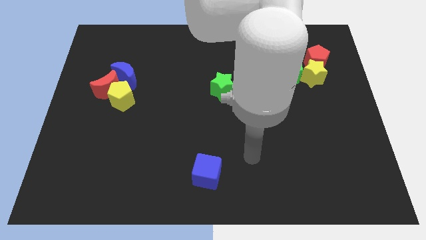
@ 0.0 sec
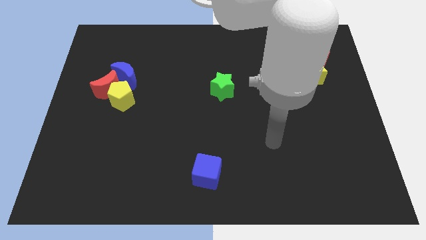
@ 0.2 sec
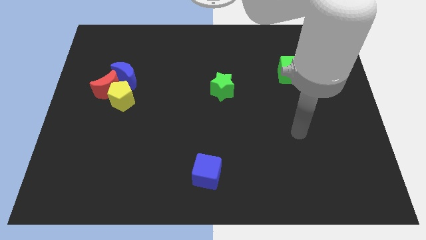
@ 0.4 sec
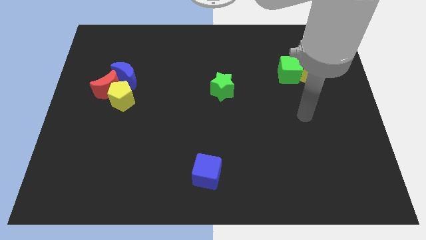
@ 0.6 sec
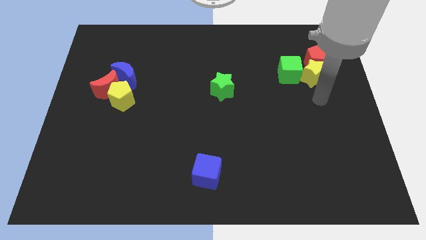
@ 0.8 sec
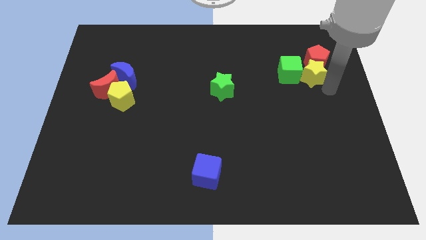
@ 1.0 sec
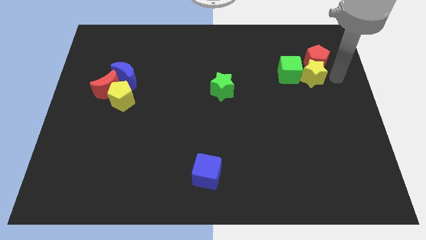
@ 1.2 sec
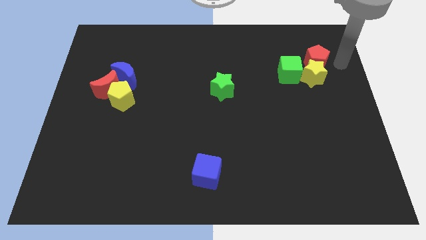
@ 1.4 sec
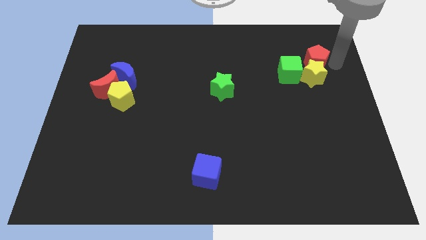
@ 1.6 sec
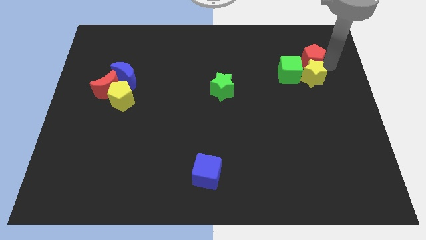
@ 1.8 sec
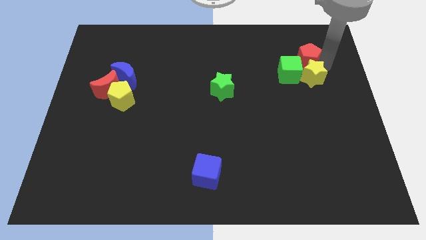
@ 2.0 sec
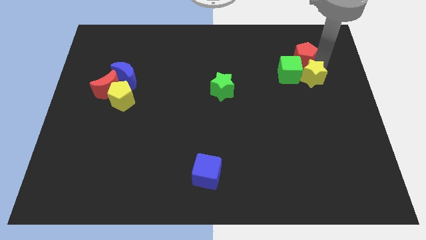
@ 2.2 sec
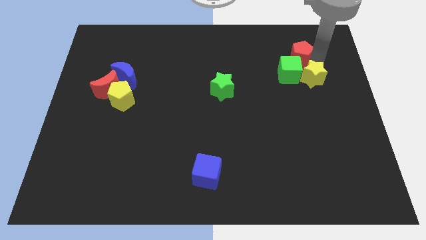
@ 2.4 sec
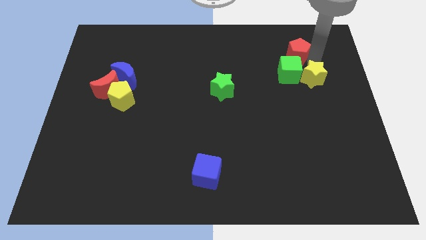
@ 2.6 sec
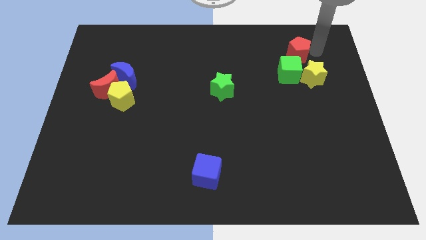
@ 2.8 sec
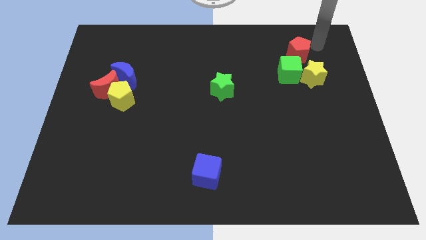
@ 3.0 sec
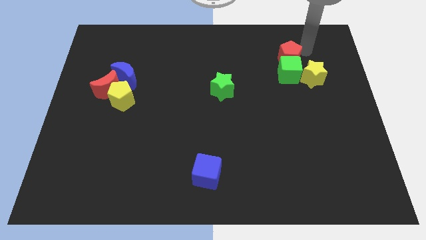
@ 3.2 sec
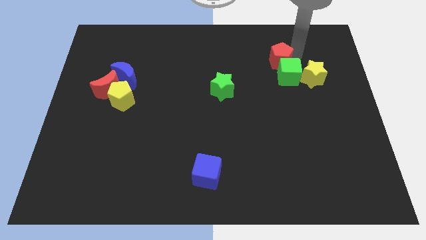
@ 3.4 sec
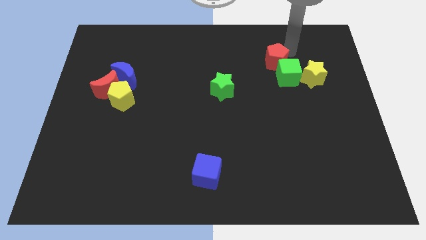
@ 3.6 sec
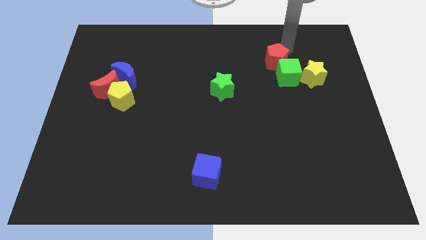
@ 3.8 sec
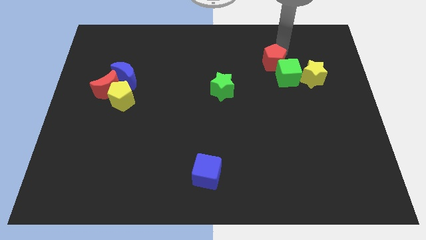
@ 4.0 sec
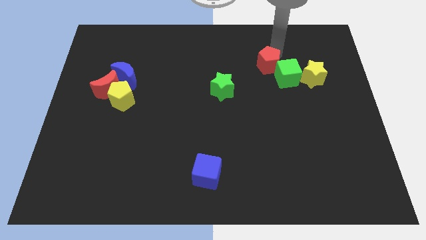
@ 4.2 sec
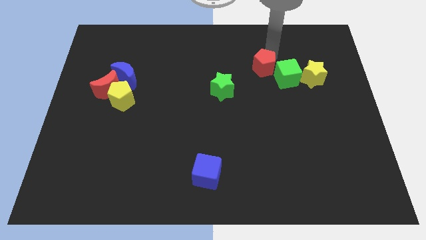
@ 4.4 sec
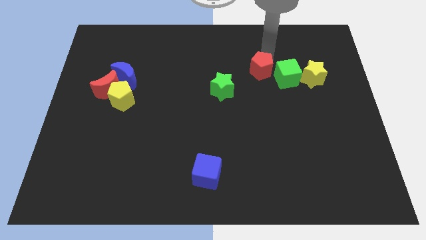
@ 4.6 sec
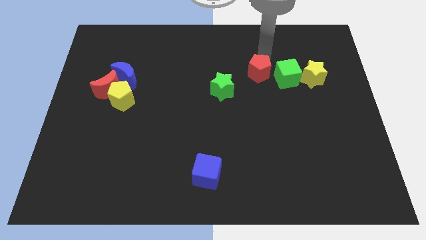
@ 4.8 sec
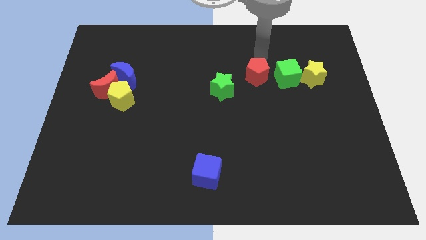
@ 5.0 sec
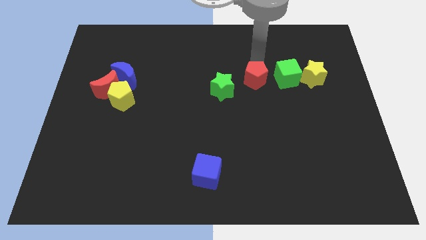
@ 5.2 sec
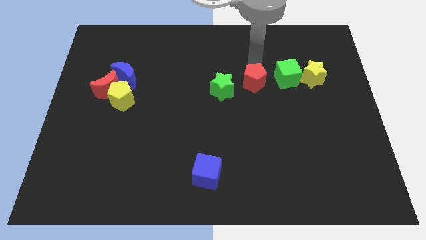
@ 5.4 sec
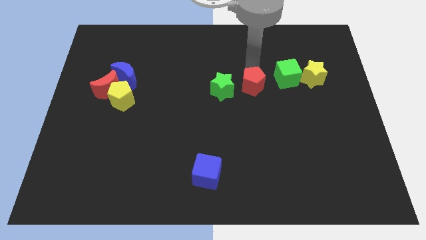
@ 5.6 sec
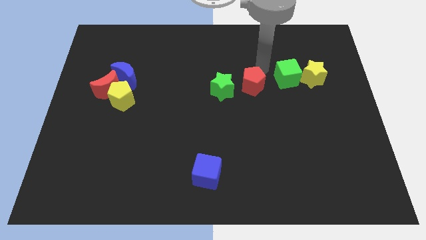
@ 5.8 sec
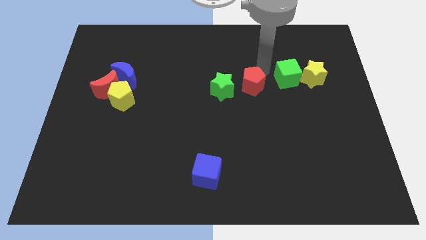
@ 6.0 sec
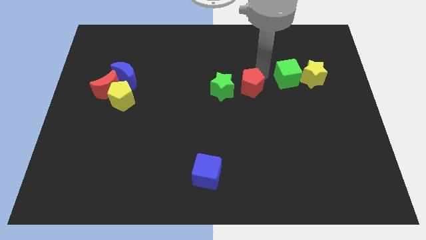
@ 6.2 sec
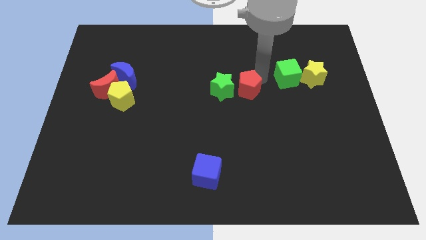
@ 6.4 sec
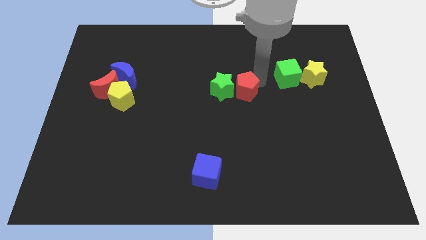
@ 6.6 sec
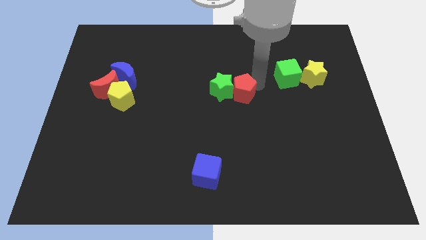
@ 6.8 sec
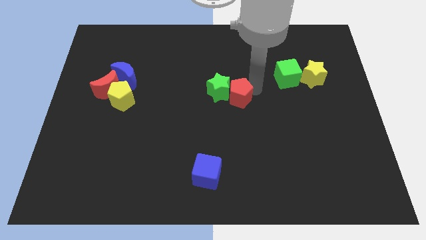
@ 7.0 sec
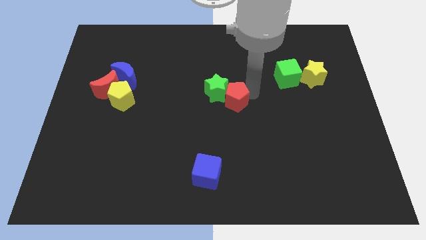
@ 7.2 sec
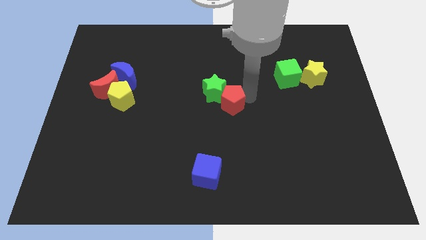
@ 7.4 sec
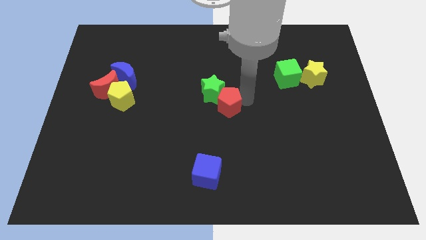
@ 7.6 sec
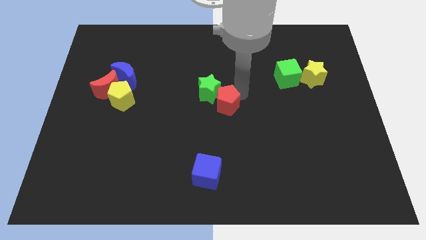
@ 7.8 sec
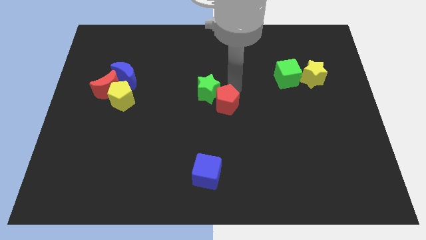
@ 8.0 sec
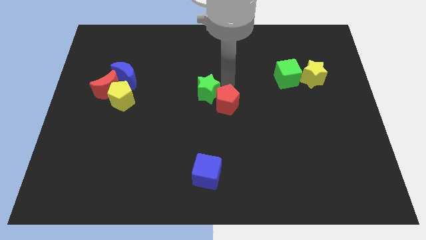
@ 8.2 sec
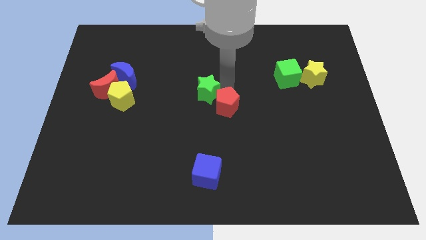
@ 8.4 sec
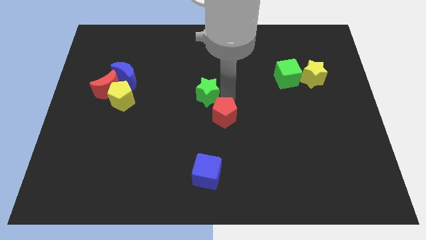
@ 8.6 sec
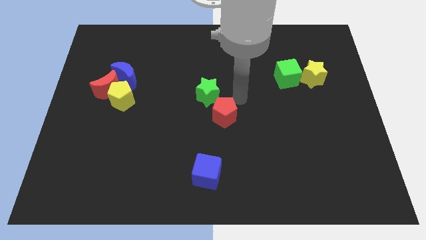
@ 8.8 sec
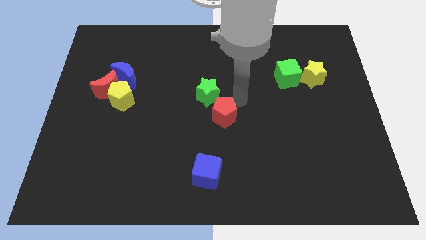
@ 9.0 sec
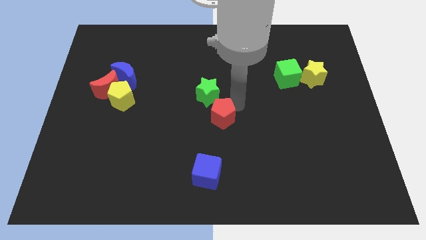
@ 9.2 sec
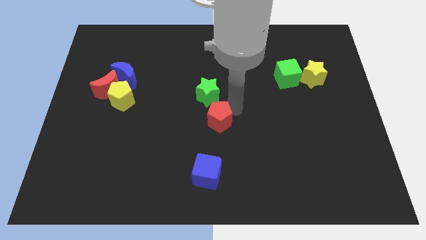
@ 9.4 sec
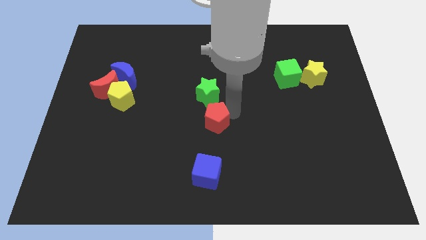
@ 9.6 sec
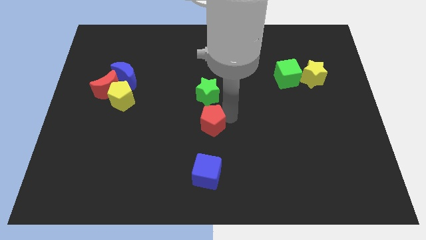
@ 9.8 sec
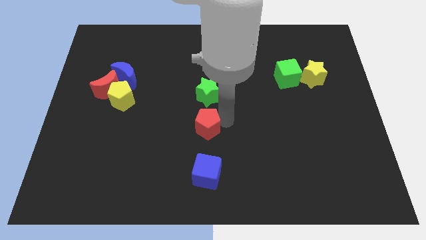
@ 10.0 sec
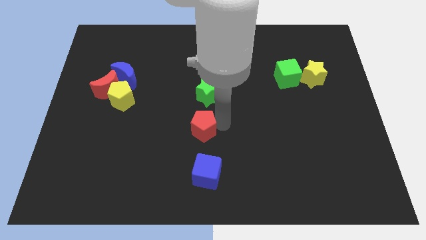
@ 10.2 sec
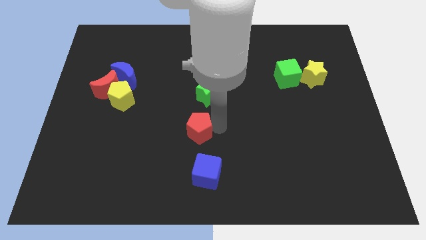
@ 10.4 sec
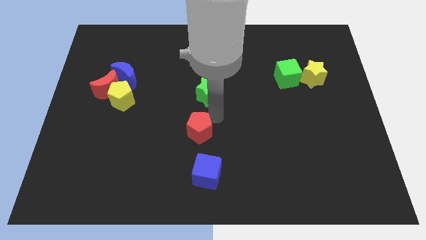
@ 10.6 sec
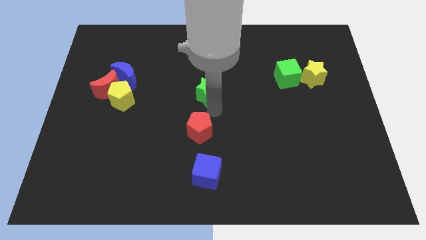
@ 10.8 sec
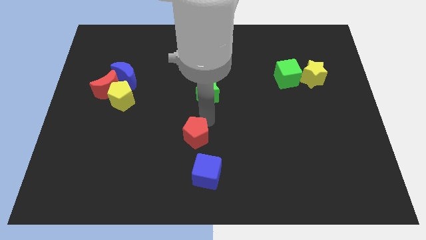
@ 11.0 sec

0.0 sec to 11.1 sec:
move the red pentagon to the top left of the blue cube

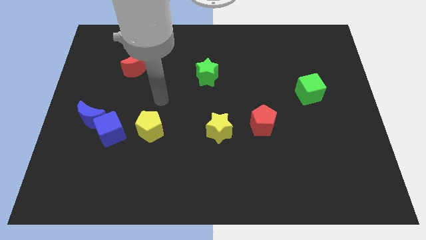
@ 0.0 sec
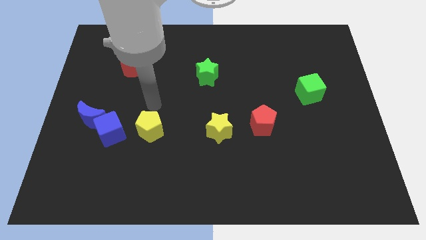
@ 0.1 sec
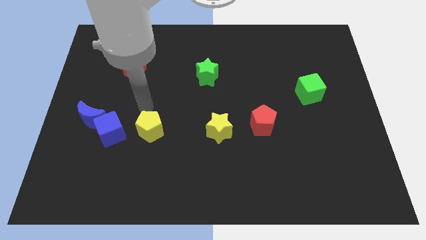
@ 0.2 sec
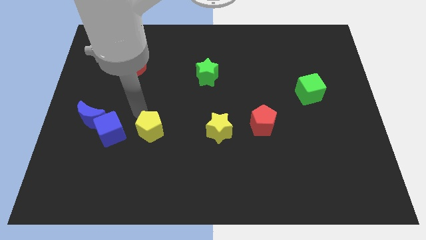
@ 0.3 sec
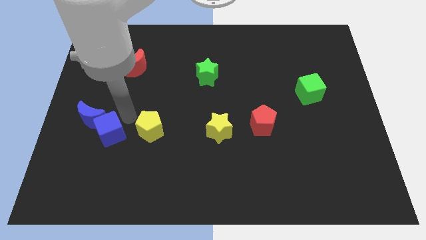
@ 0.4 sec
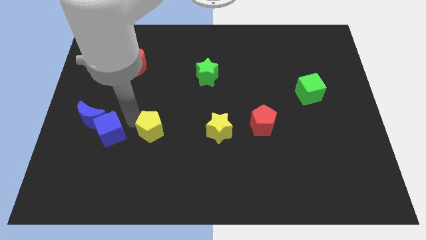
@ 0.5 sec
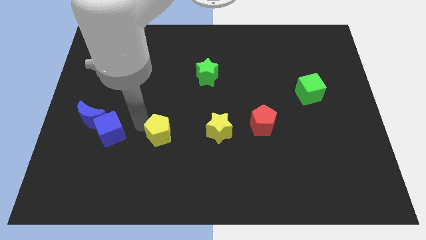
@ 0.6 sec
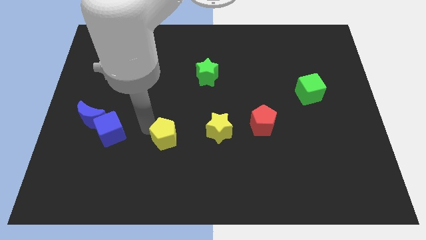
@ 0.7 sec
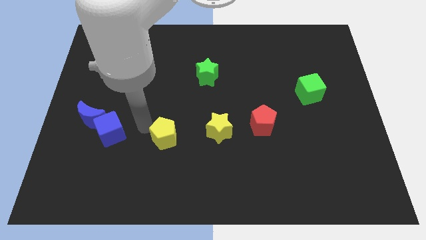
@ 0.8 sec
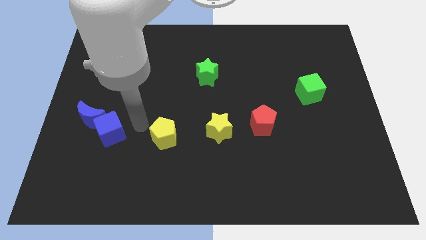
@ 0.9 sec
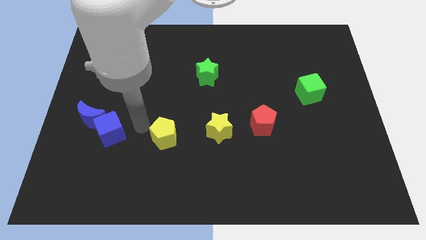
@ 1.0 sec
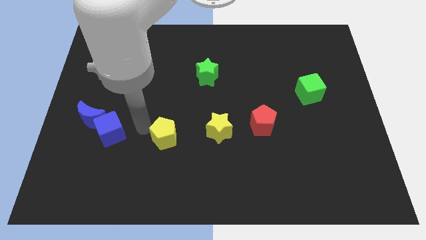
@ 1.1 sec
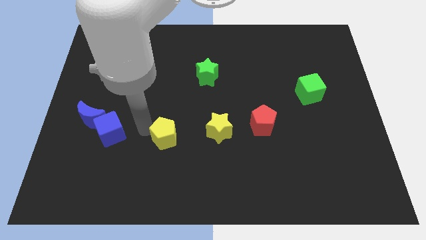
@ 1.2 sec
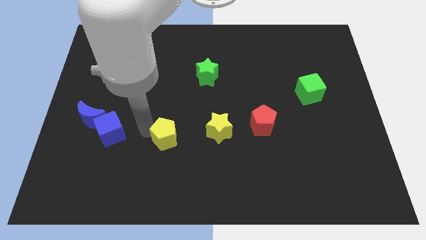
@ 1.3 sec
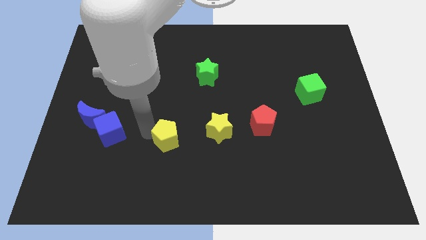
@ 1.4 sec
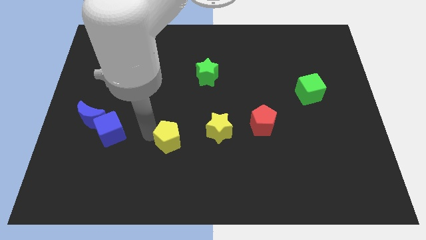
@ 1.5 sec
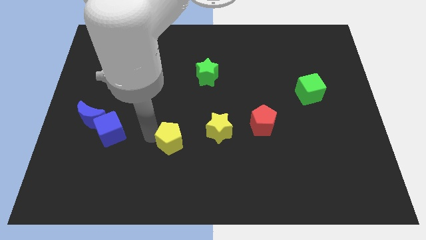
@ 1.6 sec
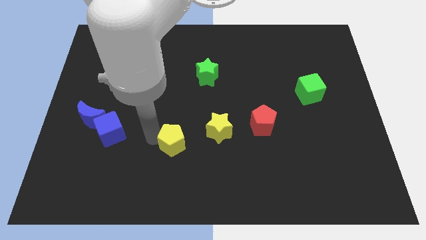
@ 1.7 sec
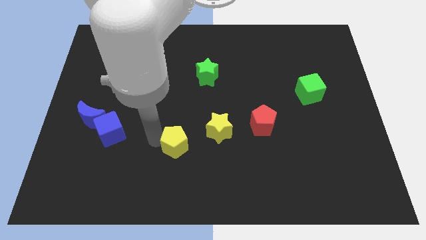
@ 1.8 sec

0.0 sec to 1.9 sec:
push the yellow pentagon to the bottom left of the yellow star
